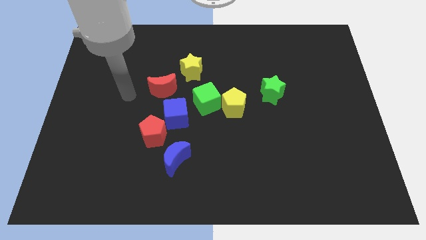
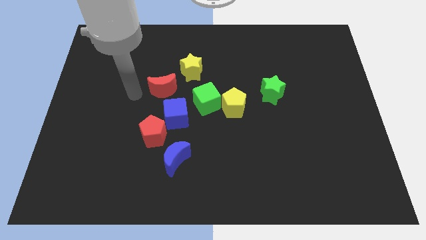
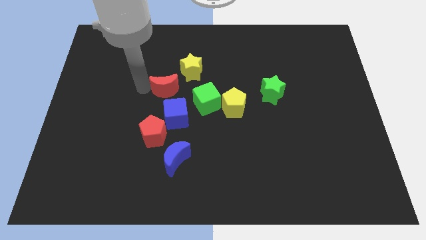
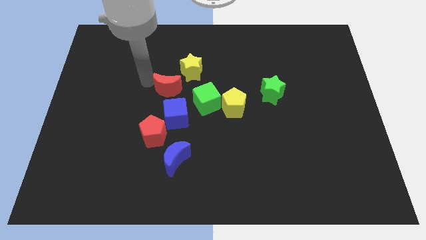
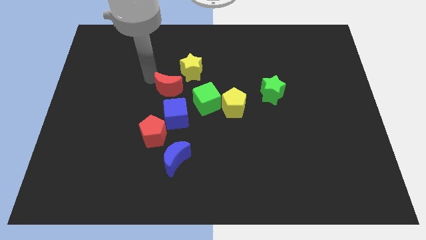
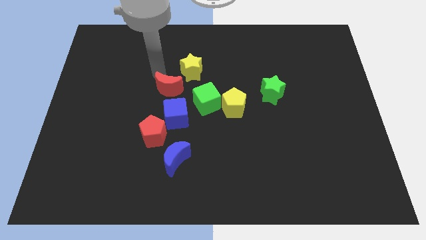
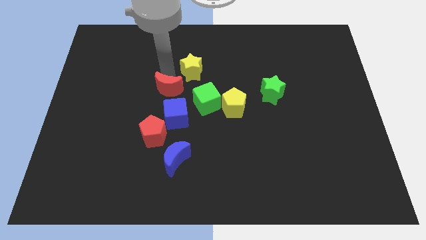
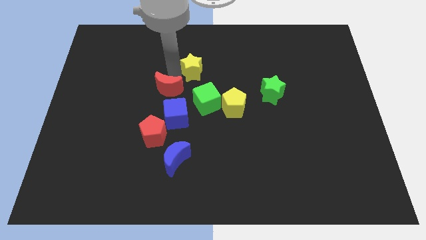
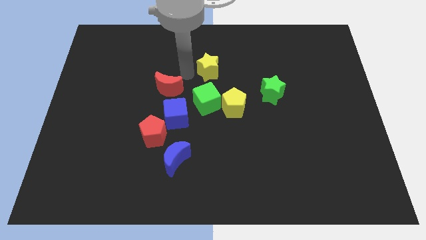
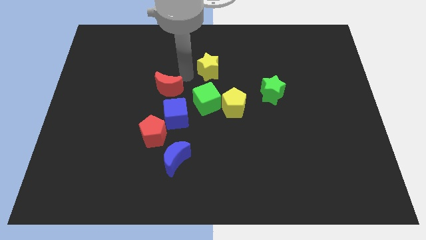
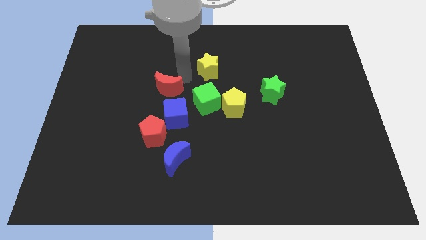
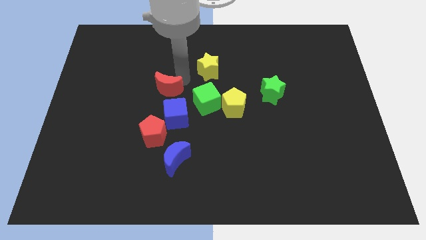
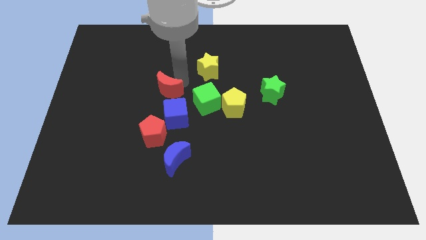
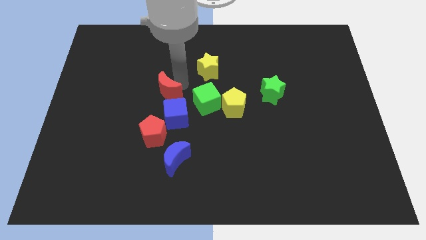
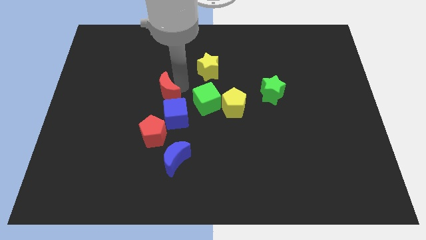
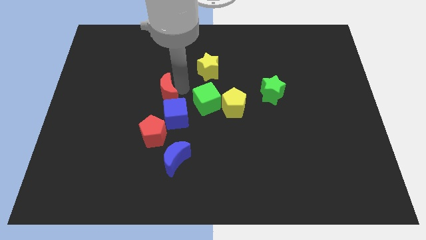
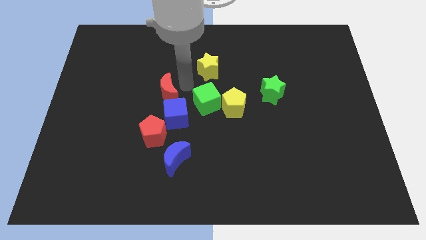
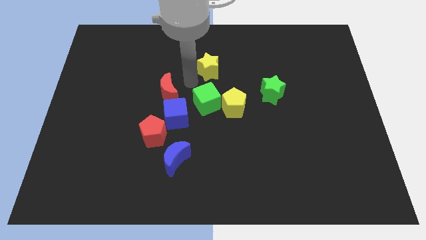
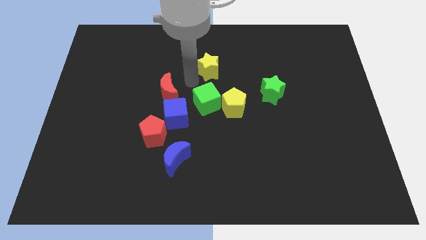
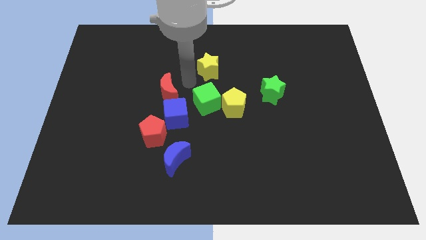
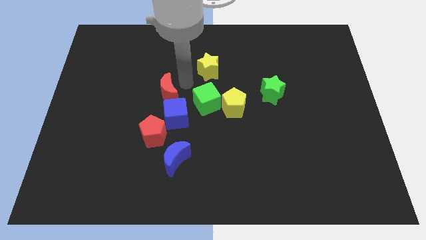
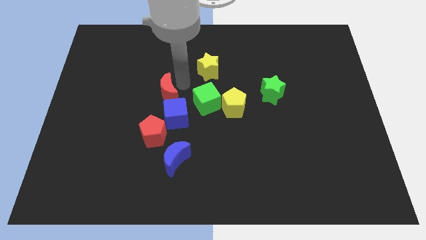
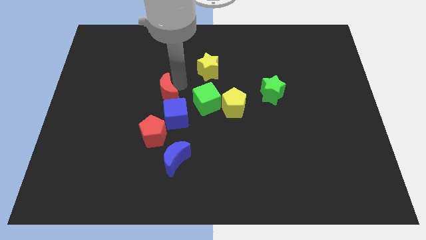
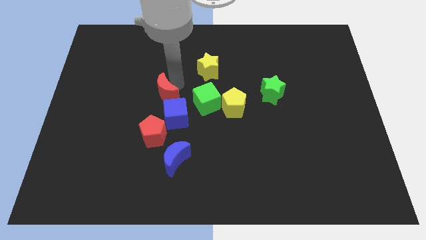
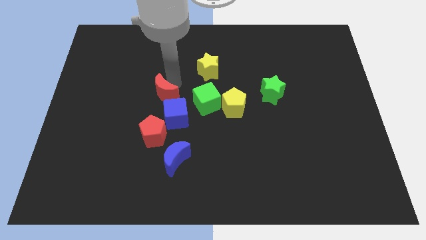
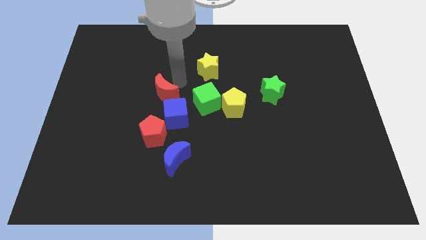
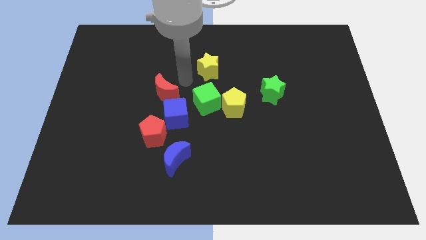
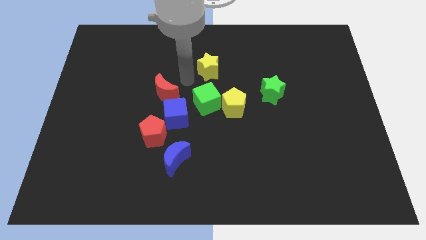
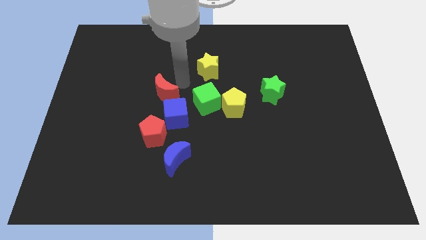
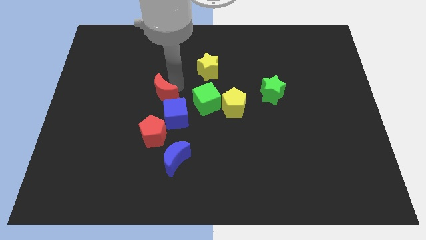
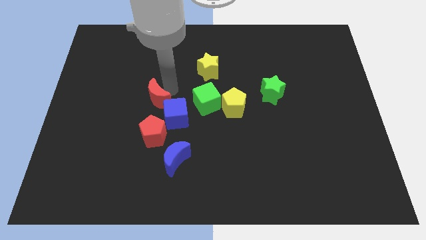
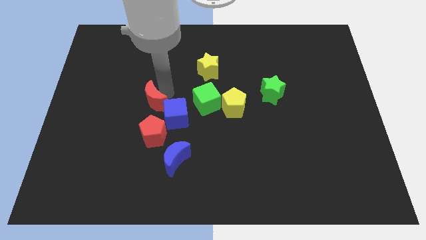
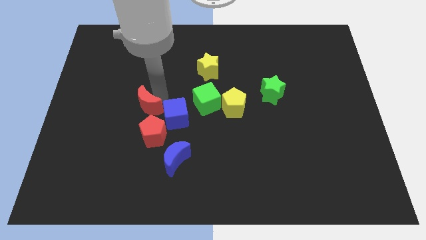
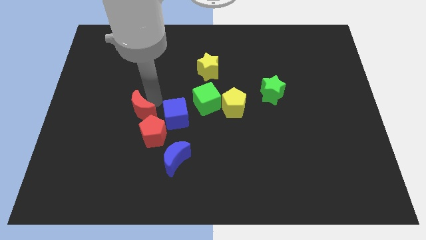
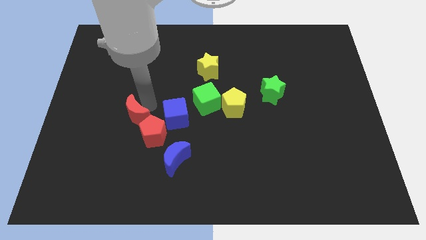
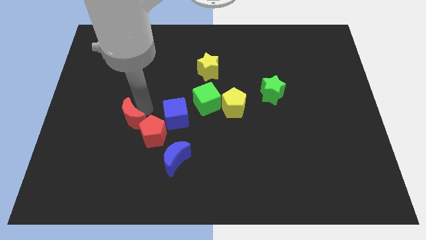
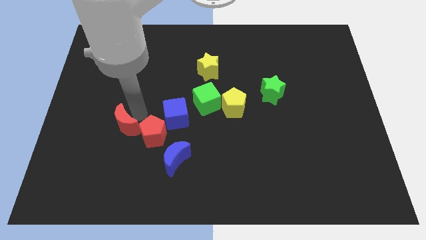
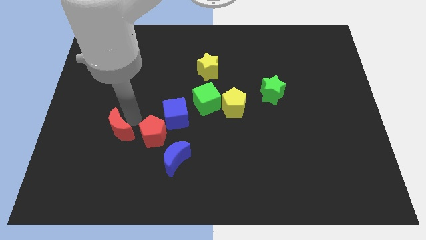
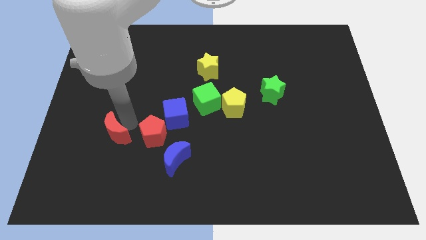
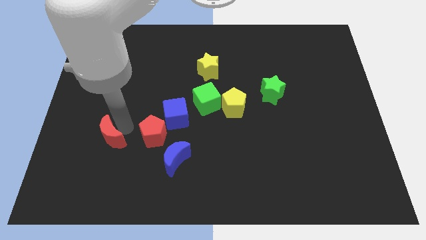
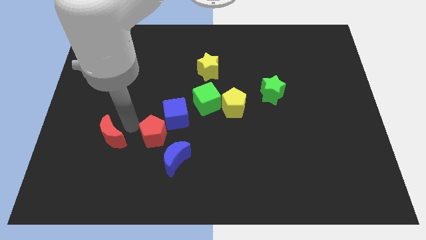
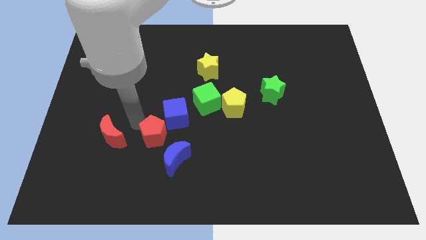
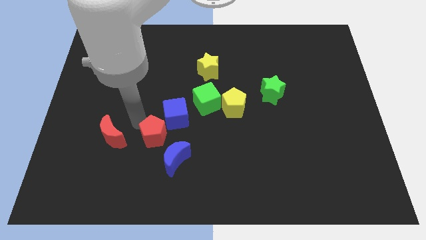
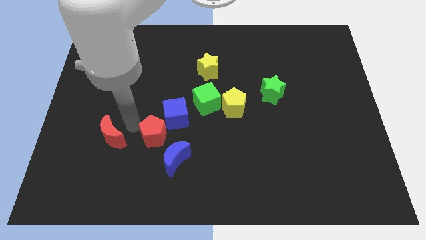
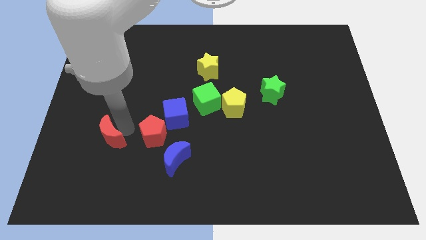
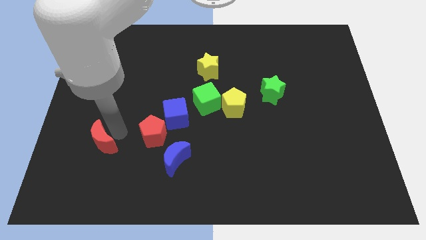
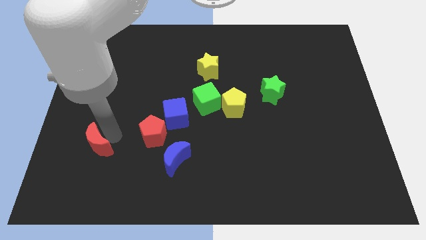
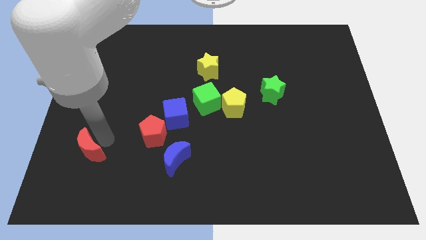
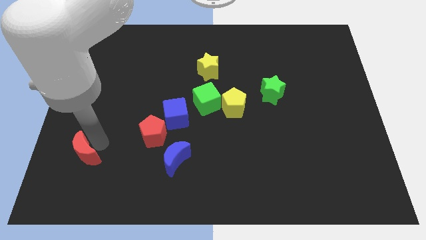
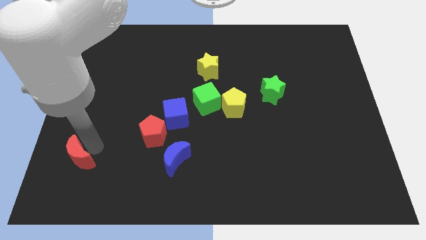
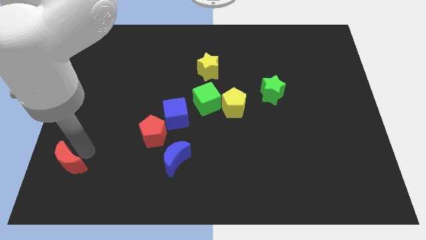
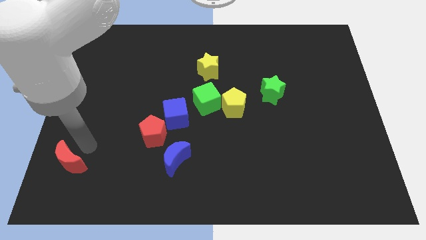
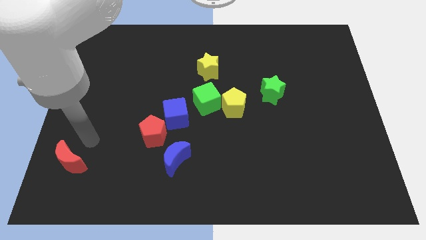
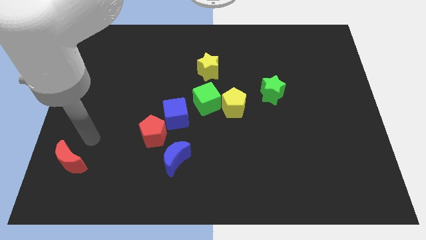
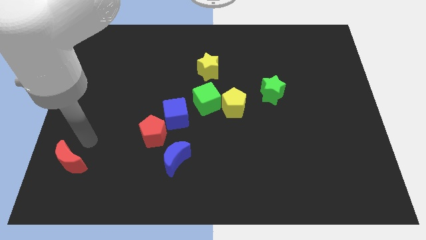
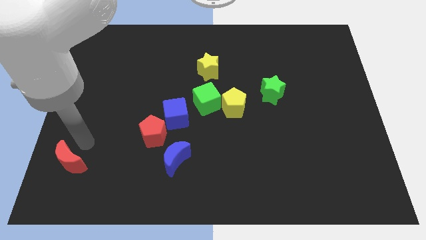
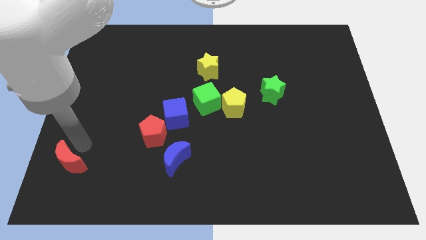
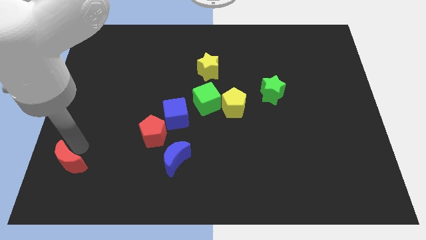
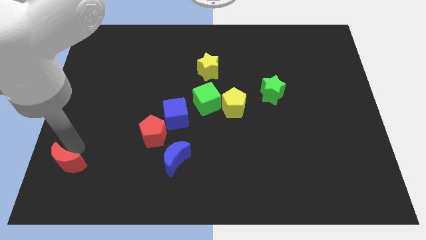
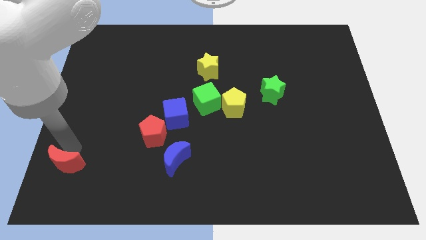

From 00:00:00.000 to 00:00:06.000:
put the red moon to the bottom left of the board
